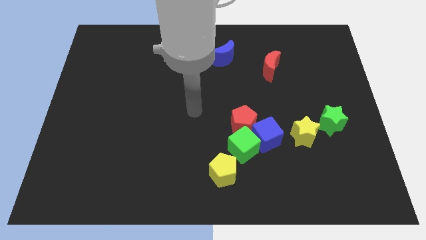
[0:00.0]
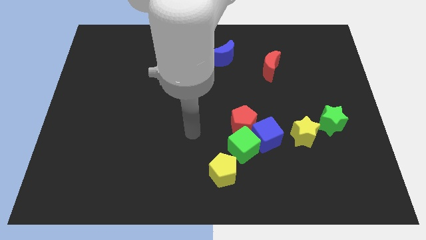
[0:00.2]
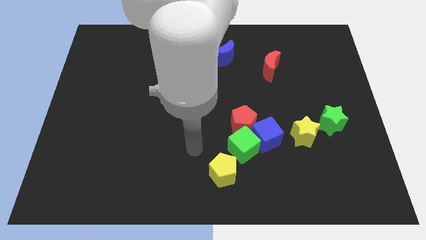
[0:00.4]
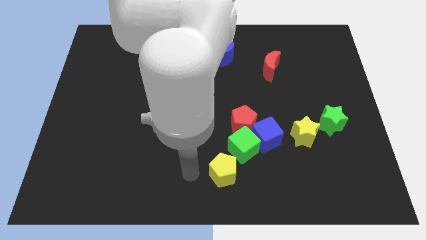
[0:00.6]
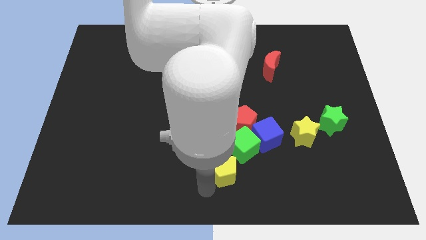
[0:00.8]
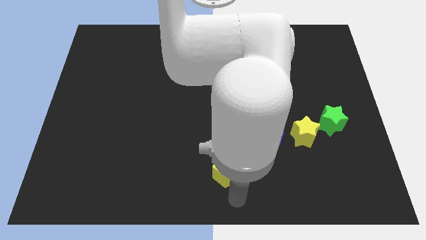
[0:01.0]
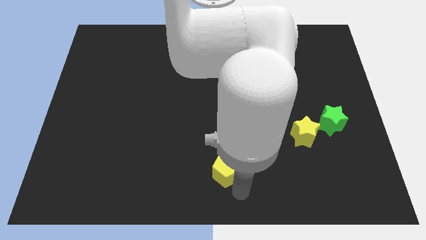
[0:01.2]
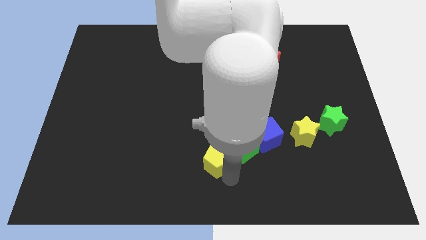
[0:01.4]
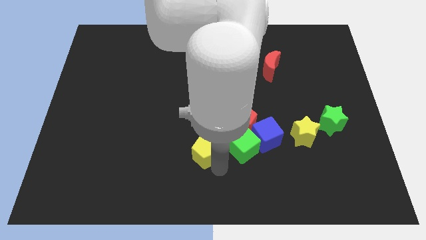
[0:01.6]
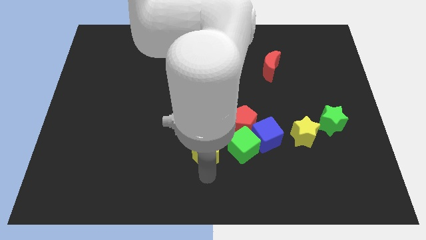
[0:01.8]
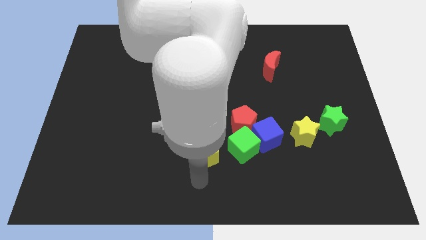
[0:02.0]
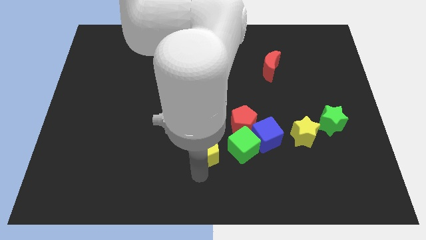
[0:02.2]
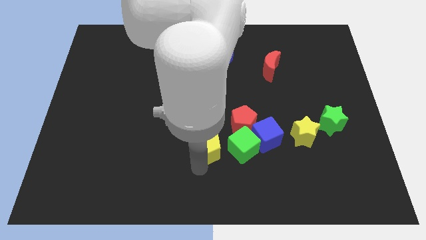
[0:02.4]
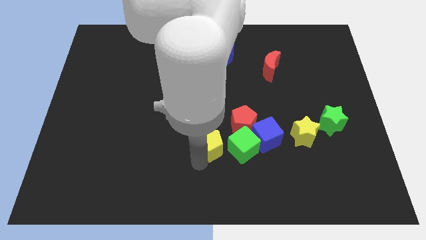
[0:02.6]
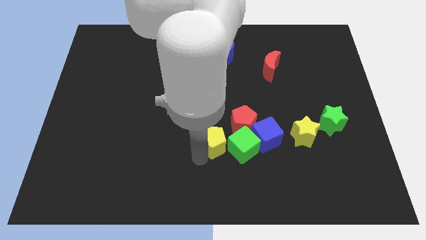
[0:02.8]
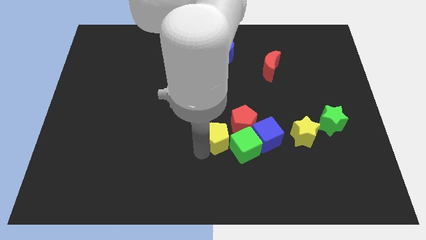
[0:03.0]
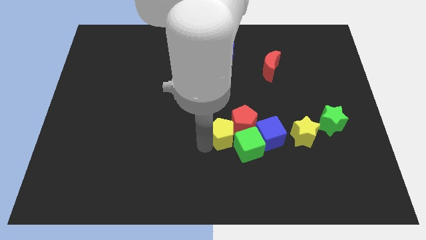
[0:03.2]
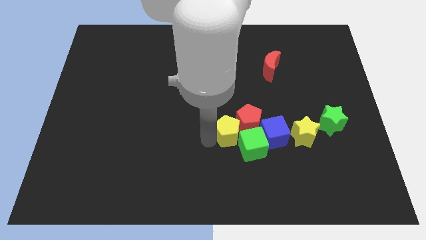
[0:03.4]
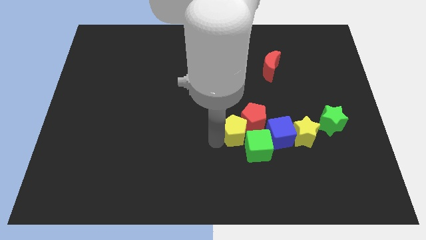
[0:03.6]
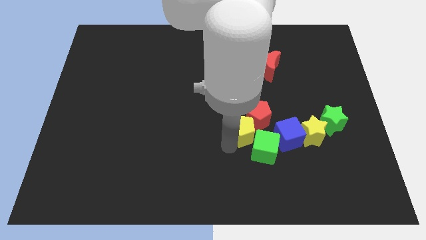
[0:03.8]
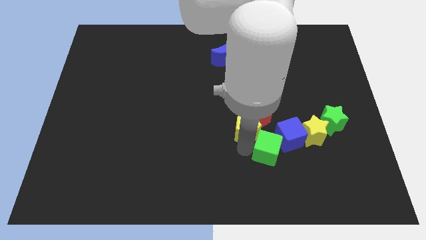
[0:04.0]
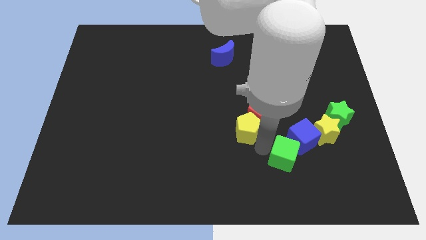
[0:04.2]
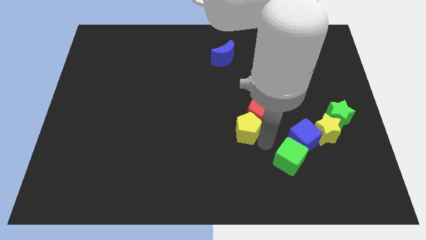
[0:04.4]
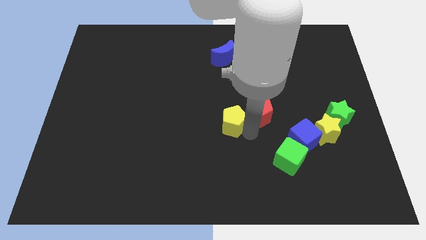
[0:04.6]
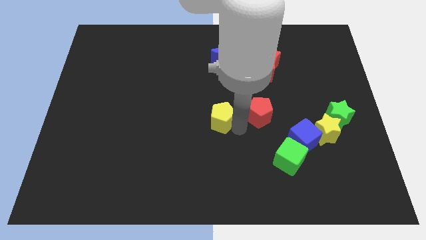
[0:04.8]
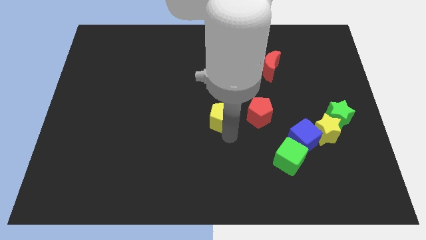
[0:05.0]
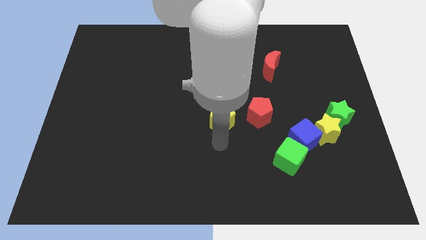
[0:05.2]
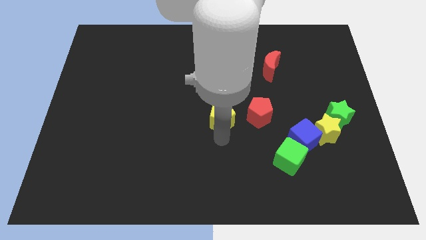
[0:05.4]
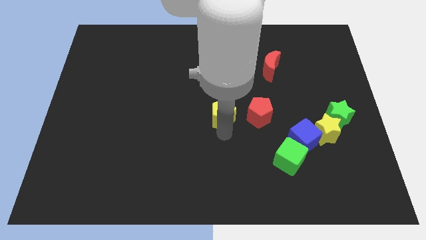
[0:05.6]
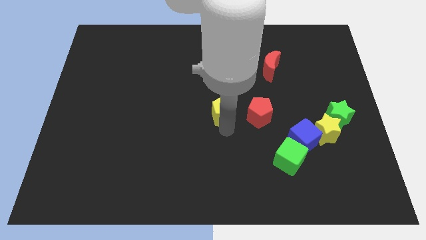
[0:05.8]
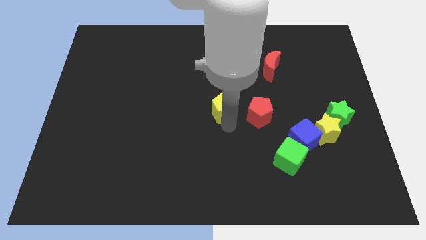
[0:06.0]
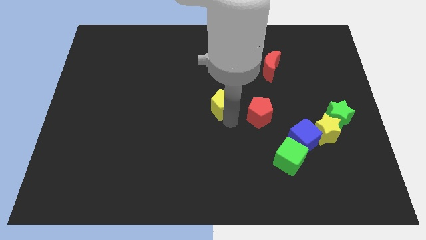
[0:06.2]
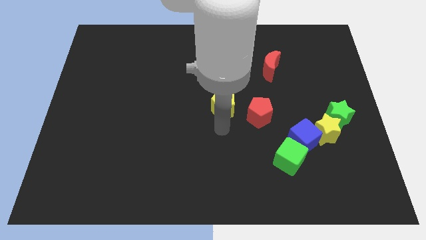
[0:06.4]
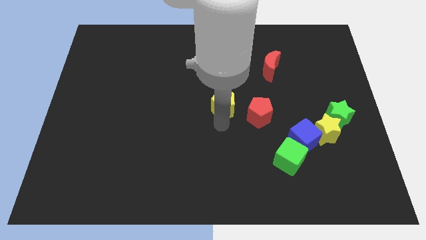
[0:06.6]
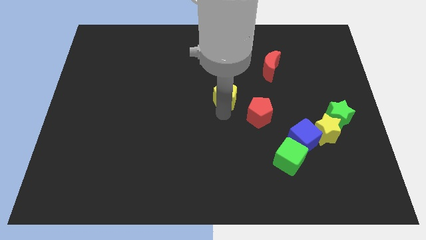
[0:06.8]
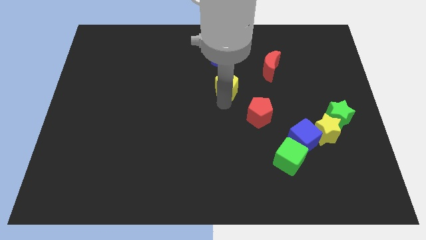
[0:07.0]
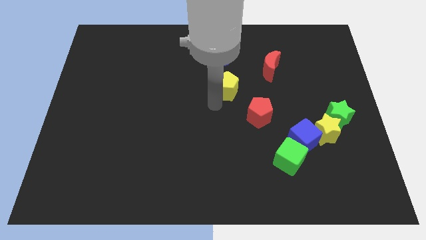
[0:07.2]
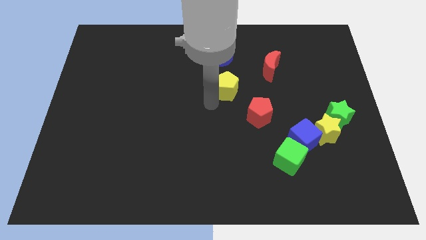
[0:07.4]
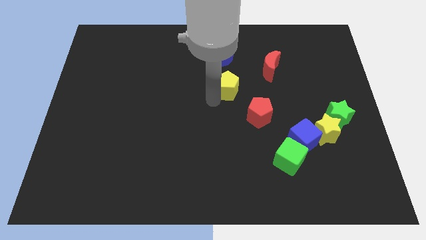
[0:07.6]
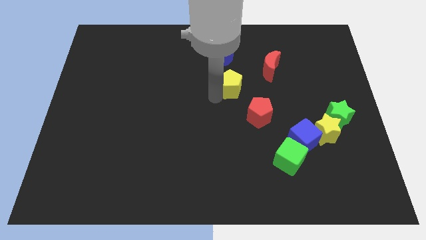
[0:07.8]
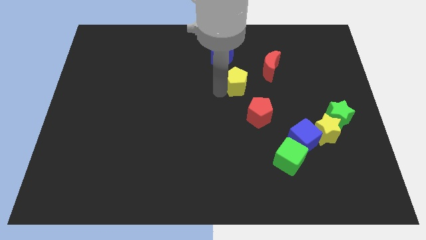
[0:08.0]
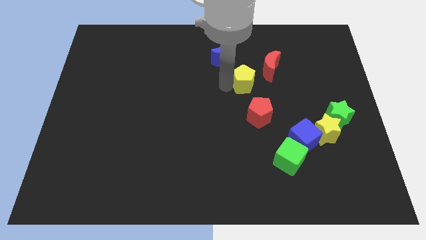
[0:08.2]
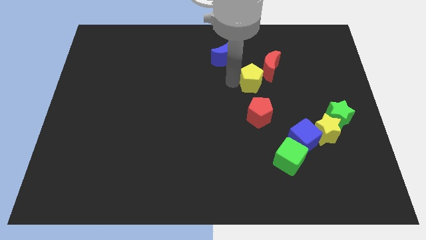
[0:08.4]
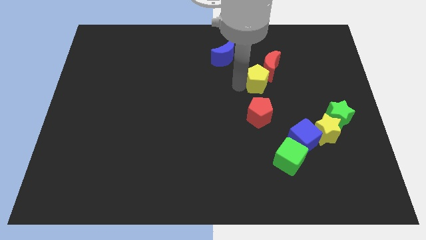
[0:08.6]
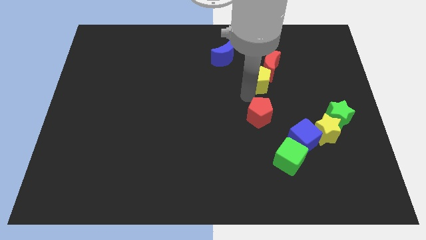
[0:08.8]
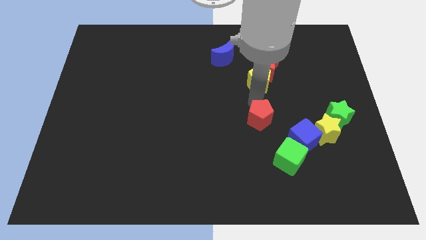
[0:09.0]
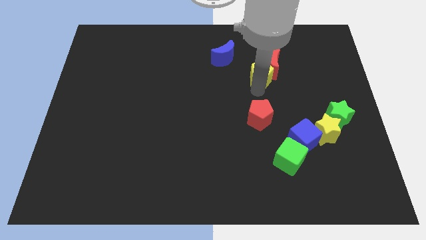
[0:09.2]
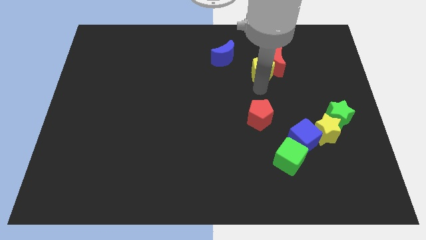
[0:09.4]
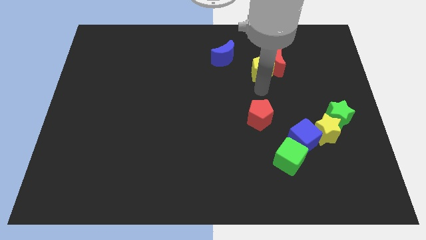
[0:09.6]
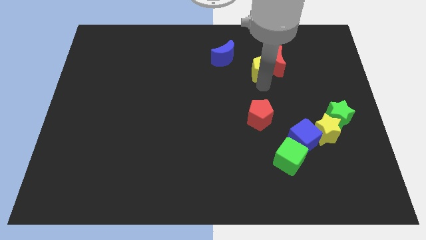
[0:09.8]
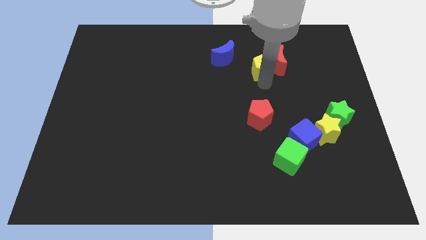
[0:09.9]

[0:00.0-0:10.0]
slide the yellow pentagon to the right side of the blue moon

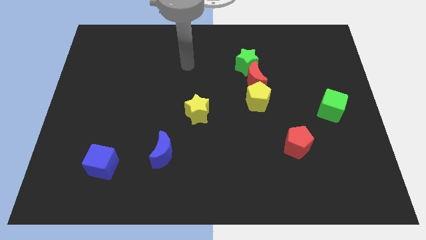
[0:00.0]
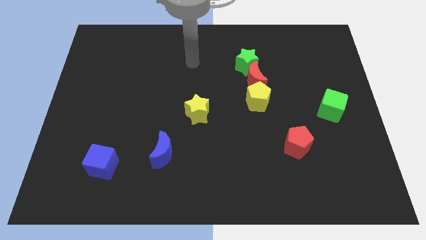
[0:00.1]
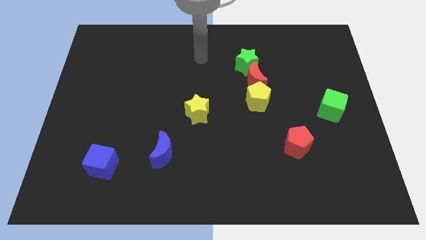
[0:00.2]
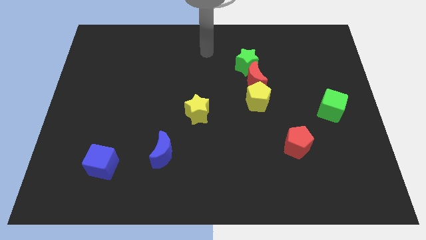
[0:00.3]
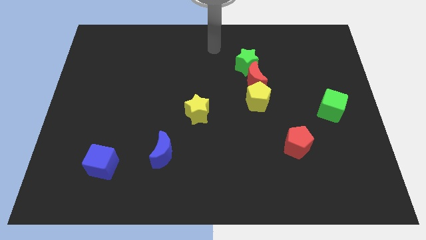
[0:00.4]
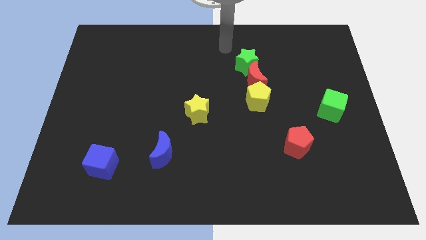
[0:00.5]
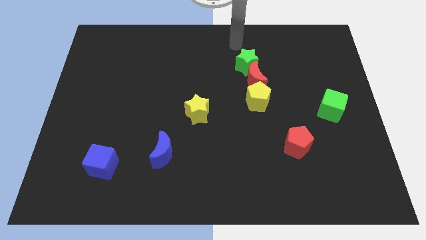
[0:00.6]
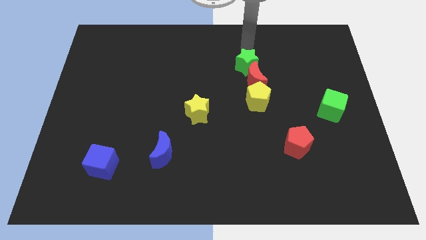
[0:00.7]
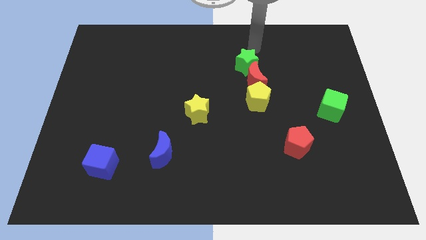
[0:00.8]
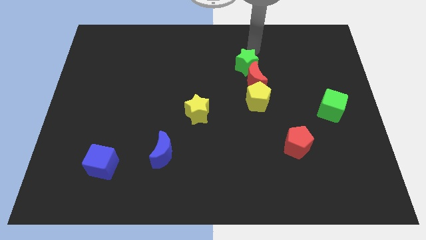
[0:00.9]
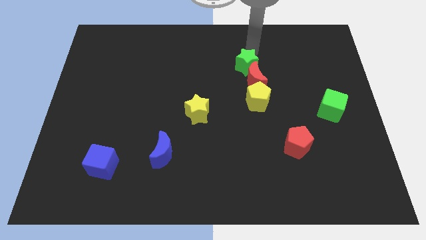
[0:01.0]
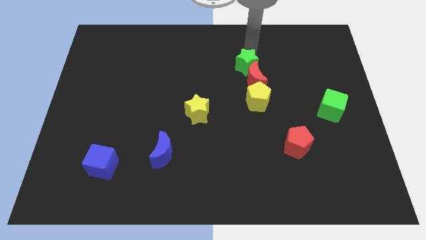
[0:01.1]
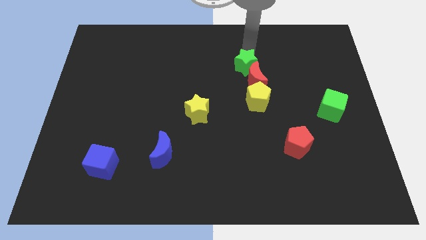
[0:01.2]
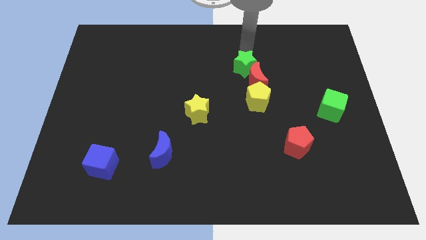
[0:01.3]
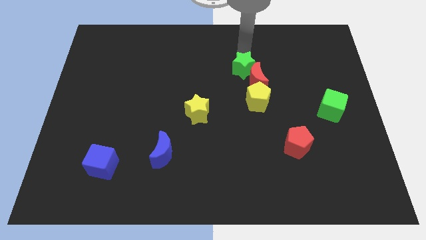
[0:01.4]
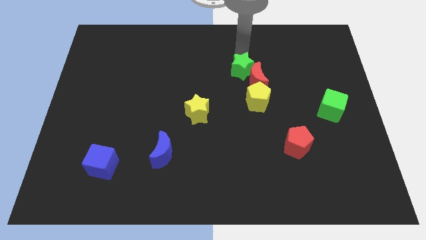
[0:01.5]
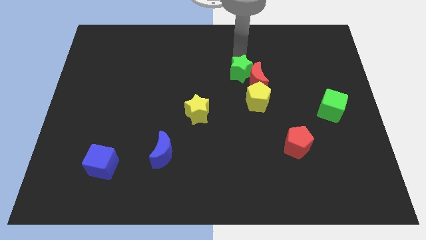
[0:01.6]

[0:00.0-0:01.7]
push the green star to the top left of the yellow pentagon

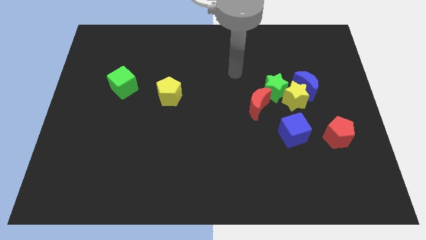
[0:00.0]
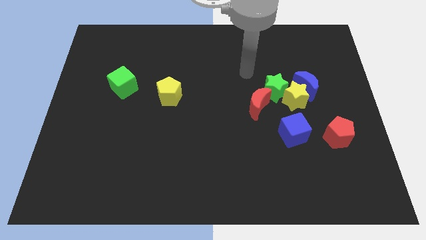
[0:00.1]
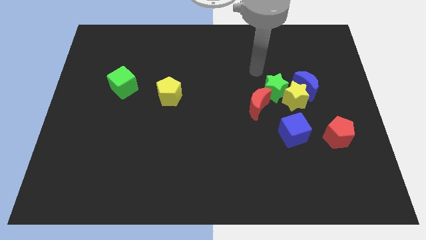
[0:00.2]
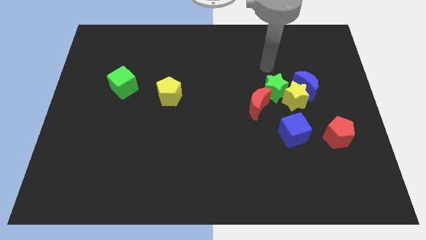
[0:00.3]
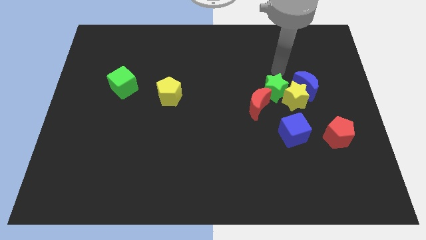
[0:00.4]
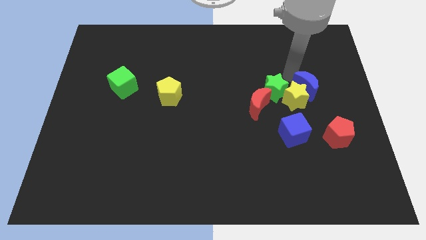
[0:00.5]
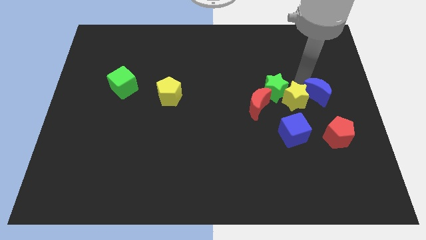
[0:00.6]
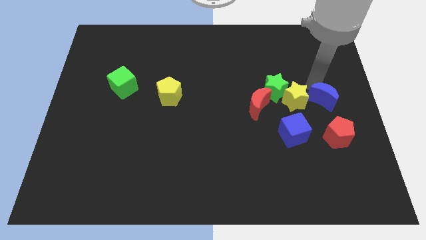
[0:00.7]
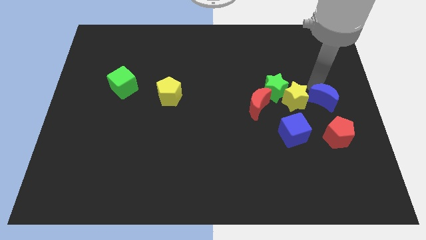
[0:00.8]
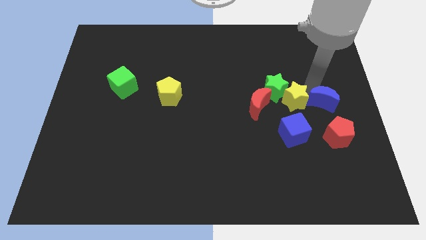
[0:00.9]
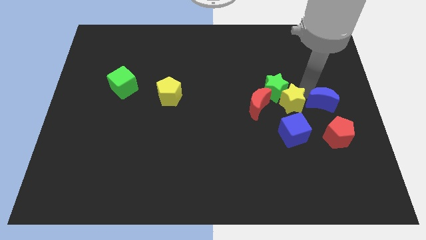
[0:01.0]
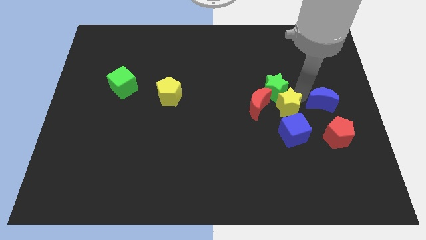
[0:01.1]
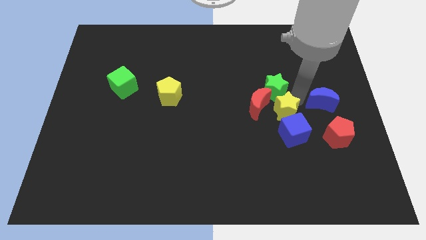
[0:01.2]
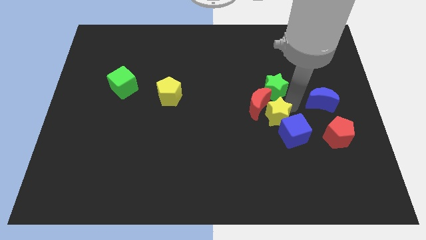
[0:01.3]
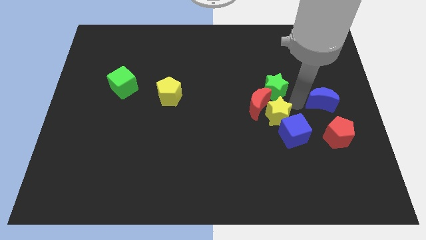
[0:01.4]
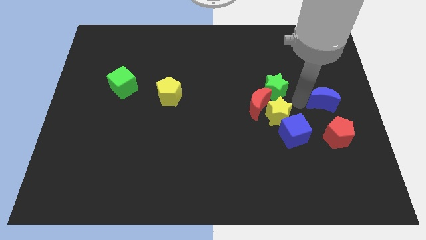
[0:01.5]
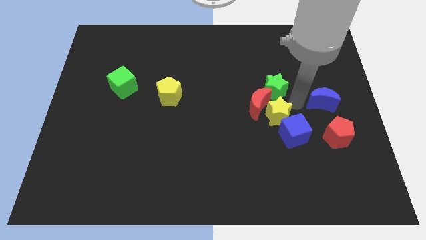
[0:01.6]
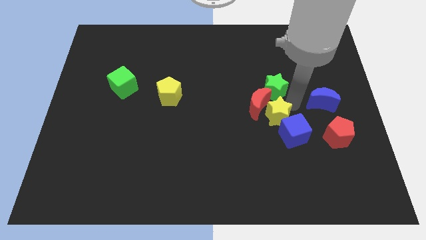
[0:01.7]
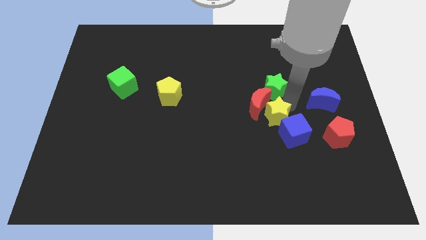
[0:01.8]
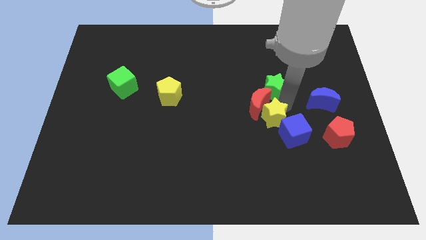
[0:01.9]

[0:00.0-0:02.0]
put the yellow star to the left side of the blue cube
